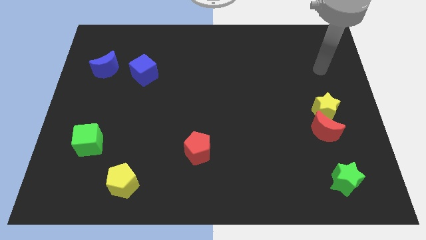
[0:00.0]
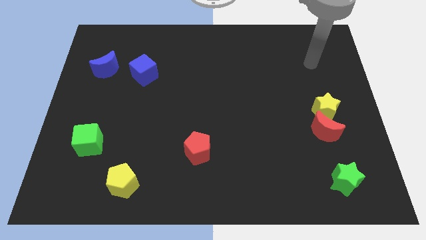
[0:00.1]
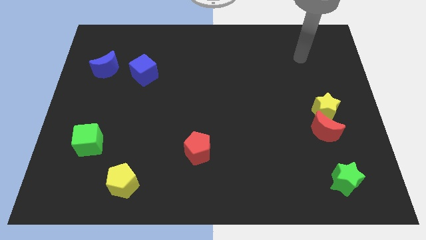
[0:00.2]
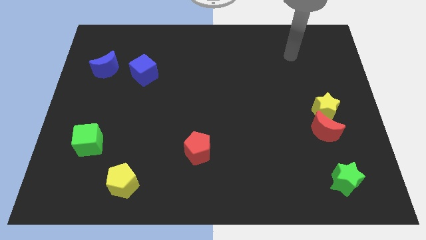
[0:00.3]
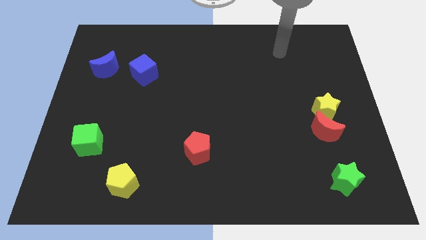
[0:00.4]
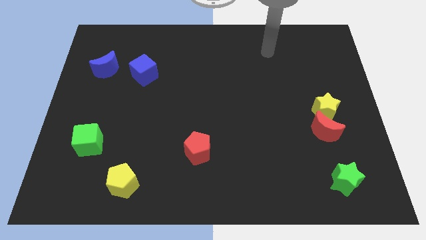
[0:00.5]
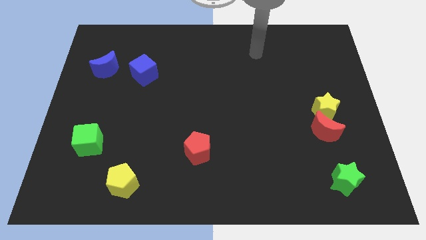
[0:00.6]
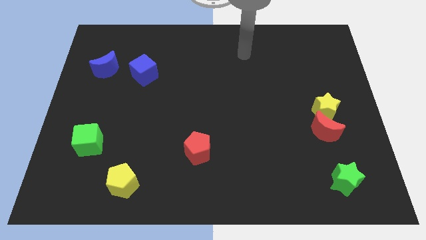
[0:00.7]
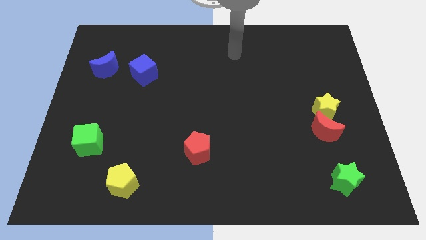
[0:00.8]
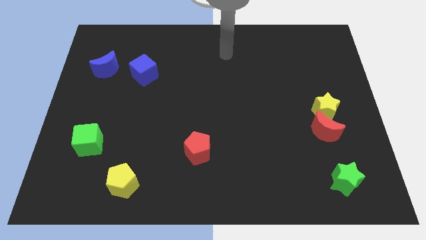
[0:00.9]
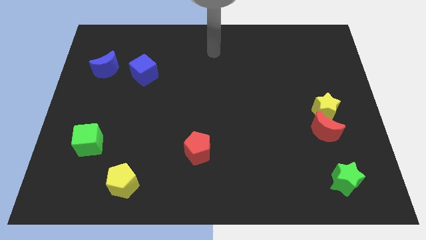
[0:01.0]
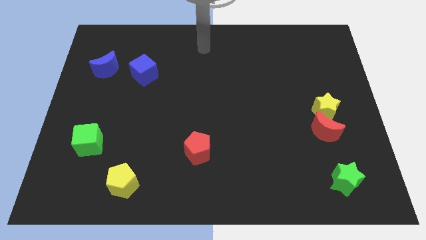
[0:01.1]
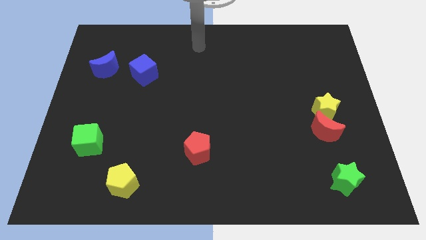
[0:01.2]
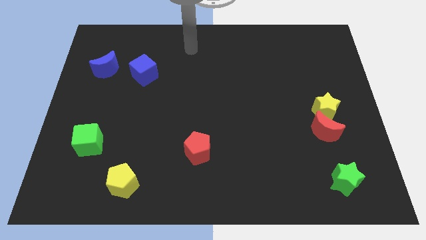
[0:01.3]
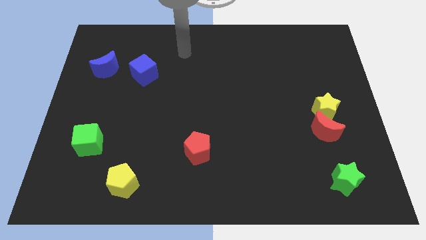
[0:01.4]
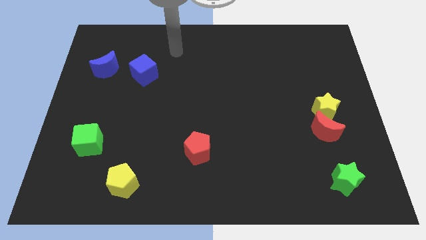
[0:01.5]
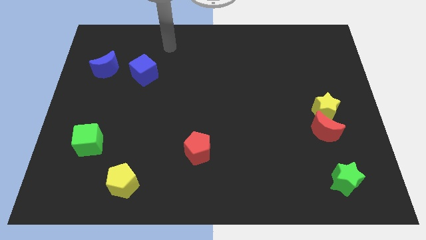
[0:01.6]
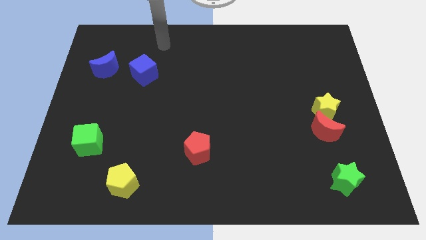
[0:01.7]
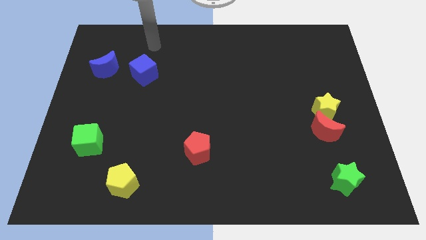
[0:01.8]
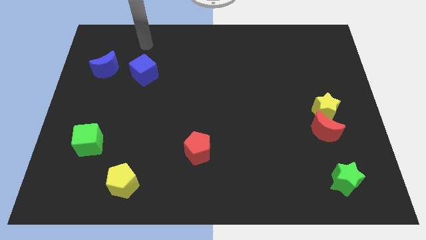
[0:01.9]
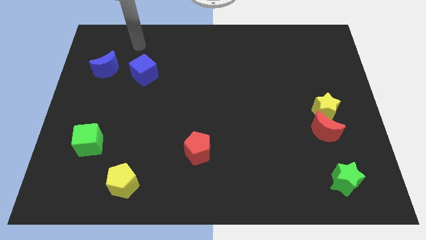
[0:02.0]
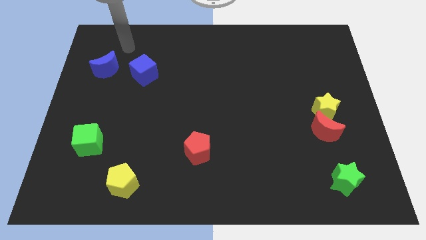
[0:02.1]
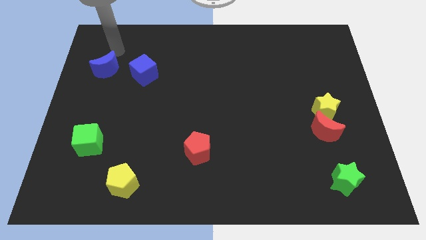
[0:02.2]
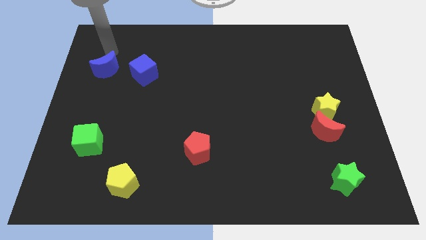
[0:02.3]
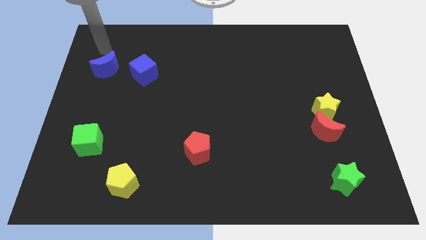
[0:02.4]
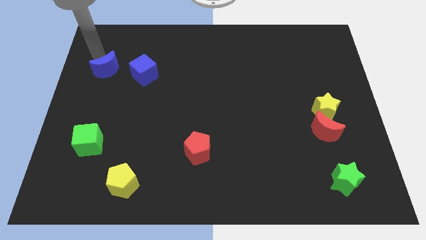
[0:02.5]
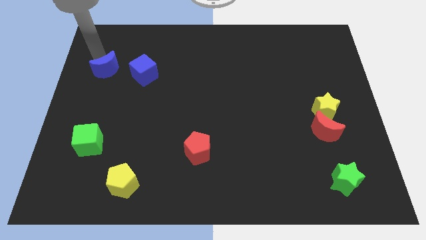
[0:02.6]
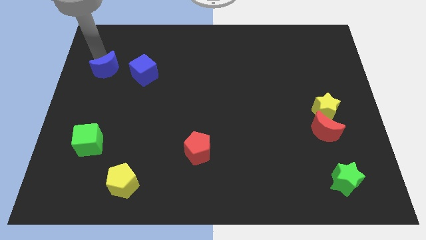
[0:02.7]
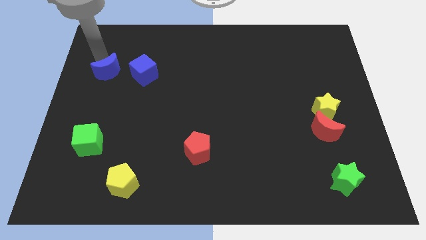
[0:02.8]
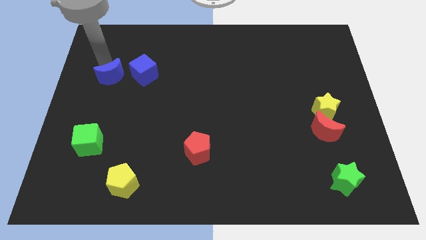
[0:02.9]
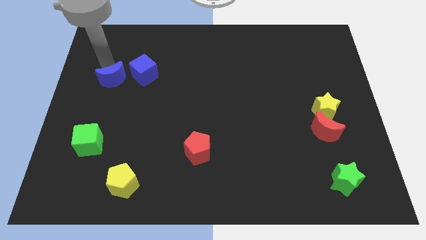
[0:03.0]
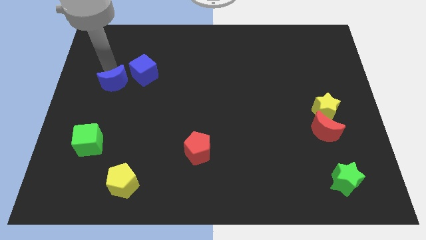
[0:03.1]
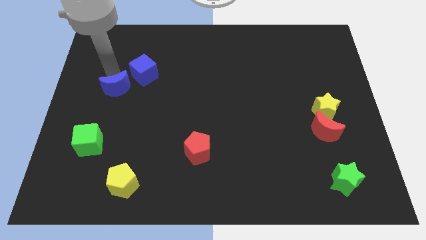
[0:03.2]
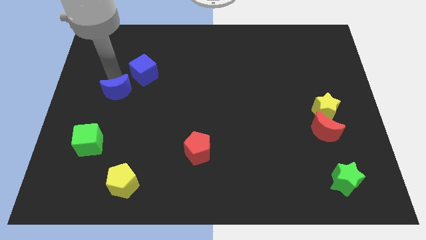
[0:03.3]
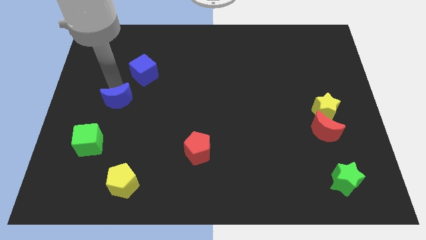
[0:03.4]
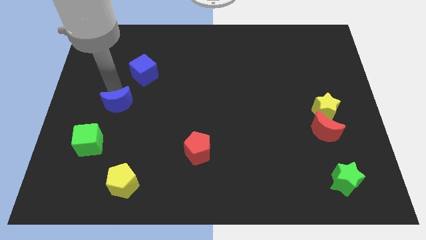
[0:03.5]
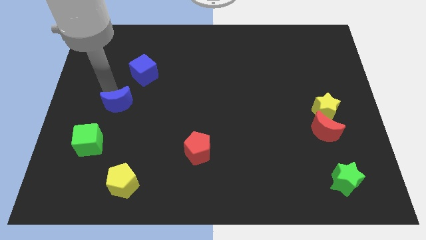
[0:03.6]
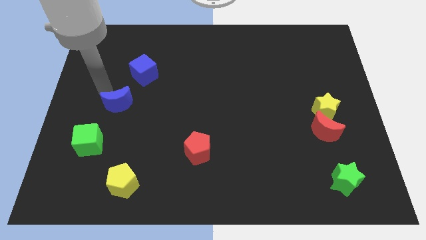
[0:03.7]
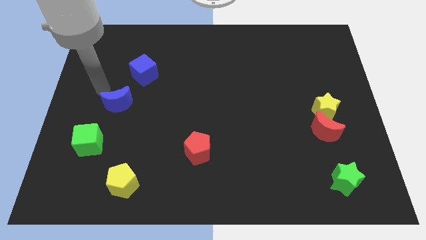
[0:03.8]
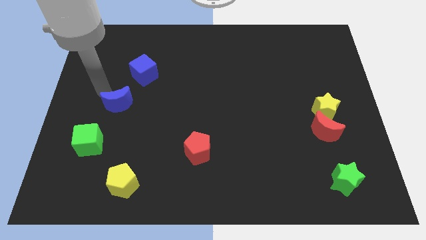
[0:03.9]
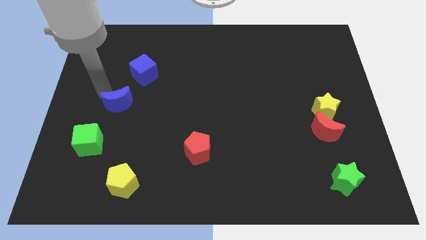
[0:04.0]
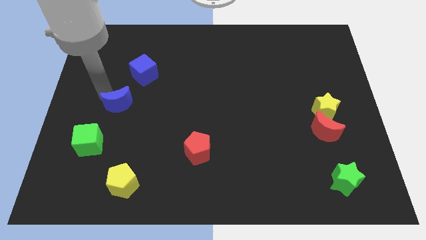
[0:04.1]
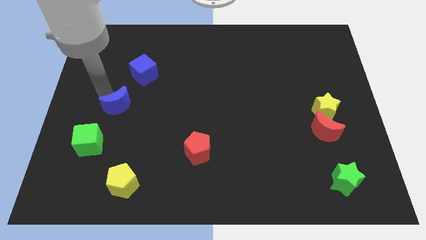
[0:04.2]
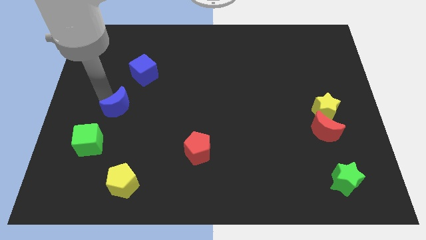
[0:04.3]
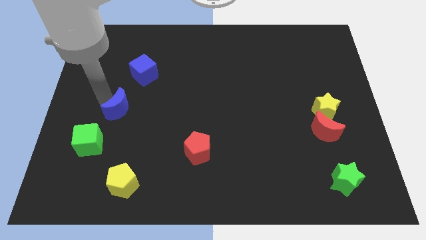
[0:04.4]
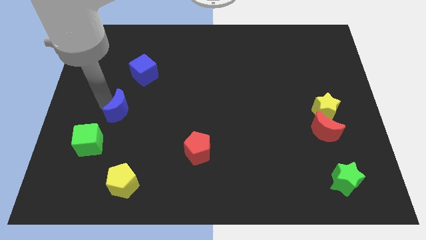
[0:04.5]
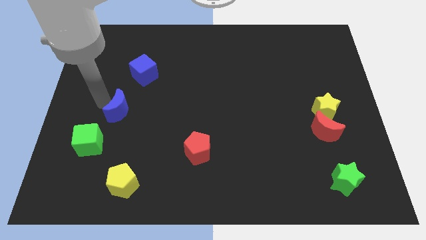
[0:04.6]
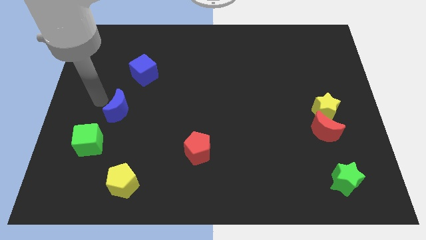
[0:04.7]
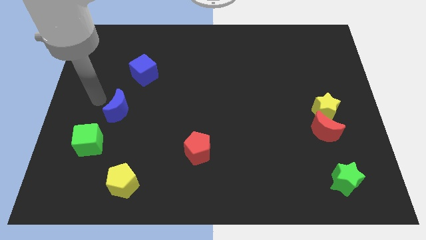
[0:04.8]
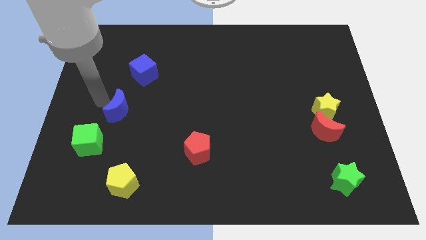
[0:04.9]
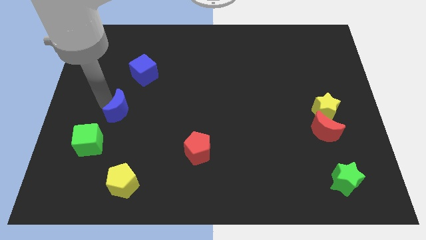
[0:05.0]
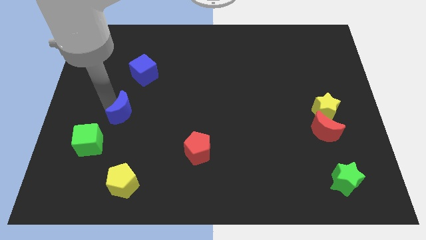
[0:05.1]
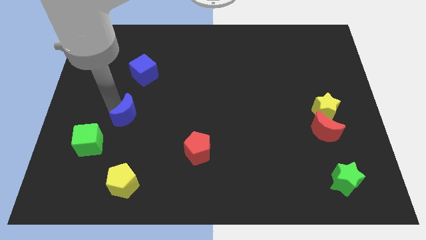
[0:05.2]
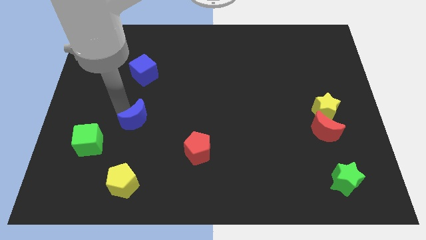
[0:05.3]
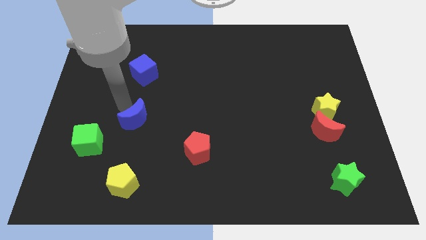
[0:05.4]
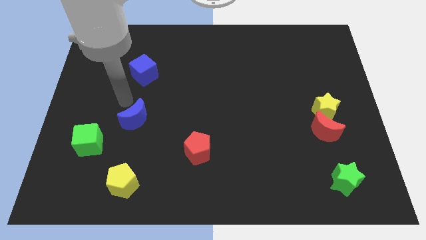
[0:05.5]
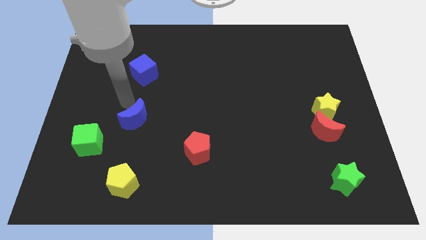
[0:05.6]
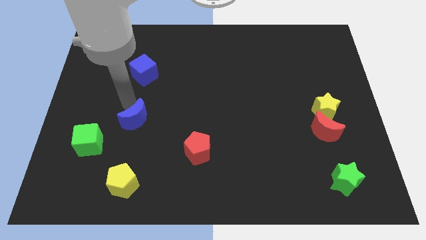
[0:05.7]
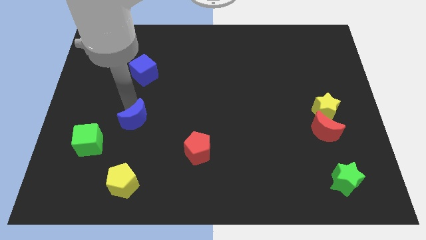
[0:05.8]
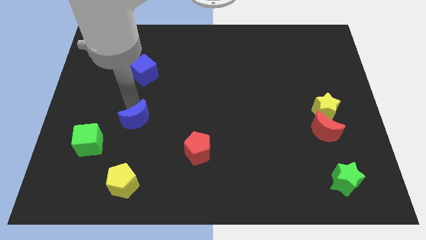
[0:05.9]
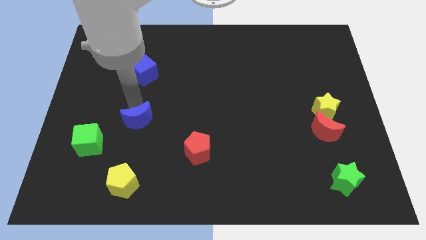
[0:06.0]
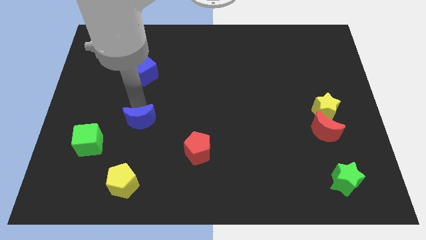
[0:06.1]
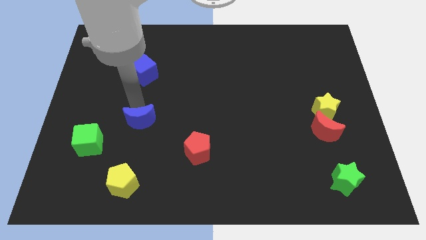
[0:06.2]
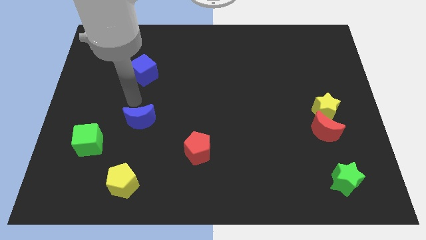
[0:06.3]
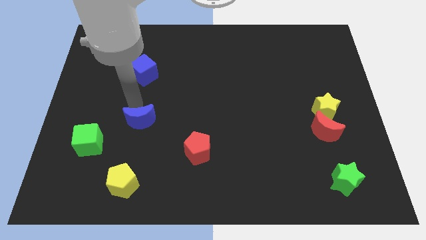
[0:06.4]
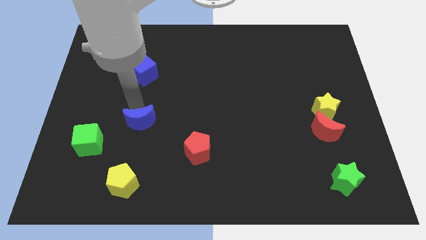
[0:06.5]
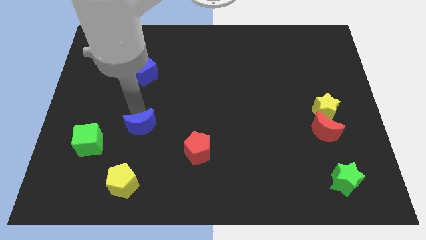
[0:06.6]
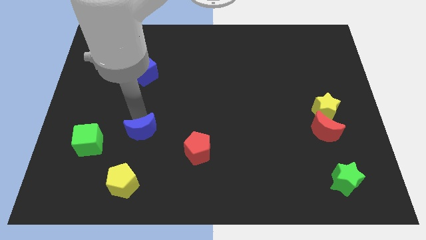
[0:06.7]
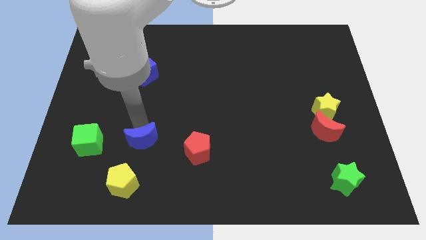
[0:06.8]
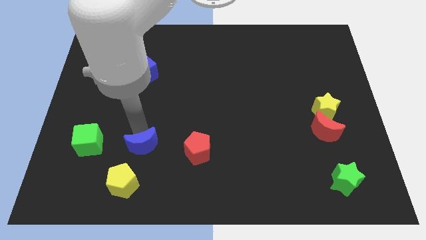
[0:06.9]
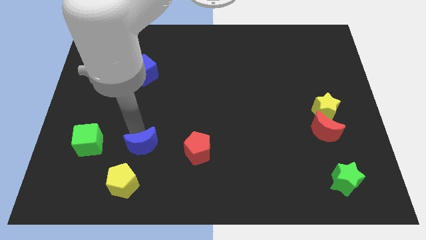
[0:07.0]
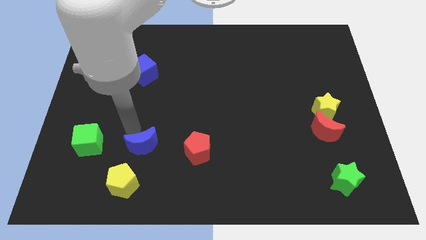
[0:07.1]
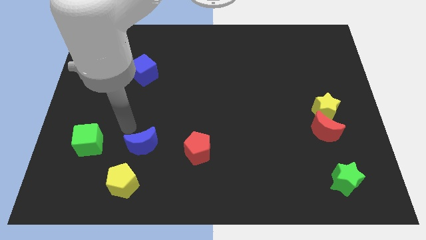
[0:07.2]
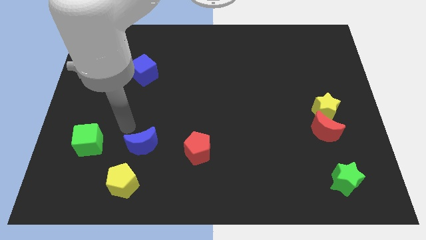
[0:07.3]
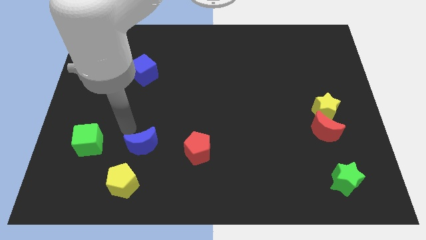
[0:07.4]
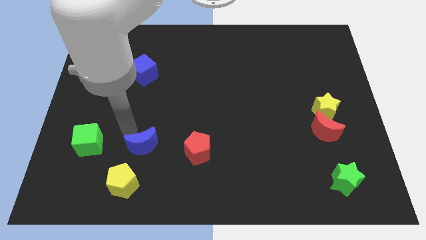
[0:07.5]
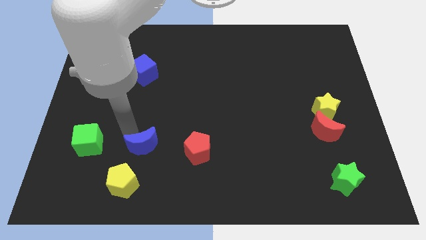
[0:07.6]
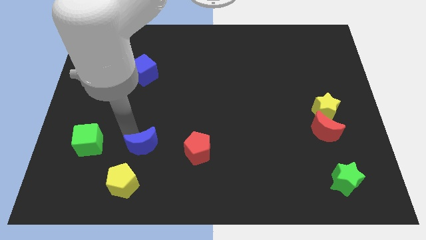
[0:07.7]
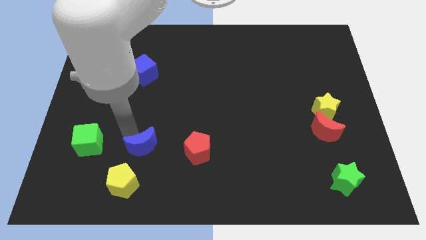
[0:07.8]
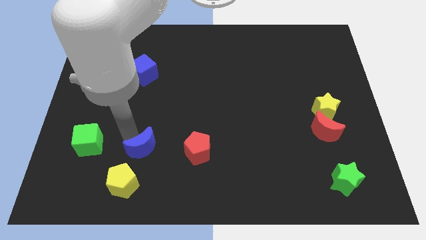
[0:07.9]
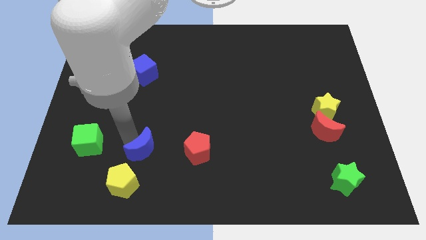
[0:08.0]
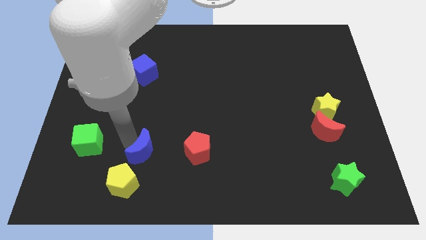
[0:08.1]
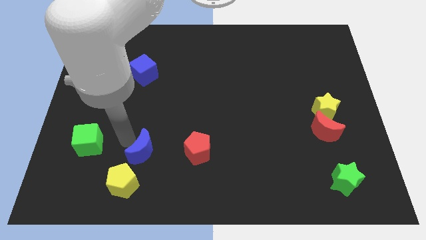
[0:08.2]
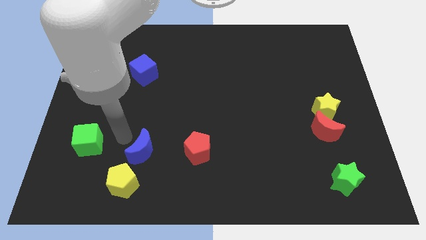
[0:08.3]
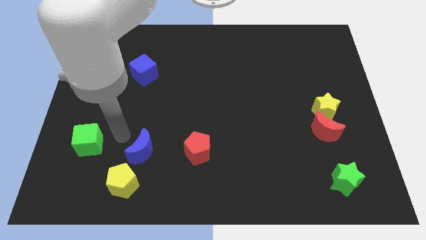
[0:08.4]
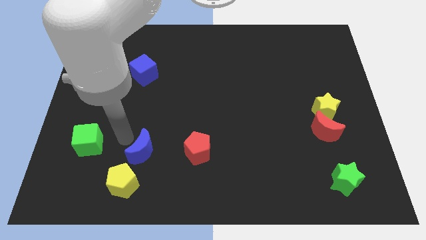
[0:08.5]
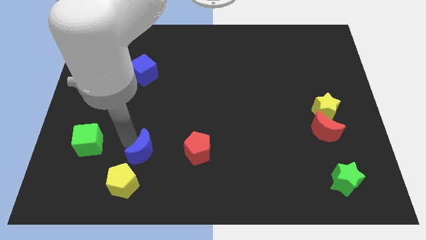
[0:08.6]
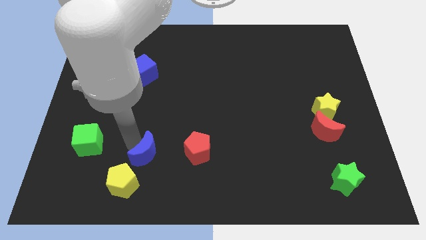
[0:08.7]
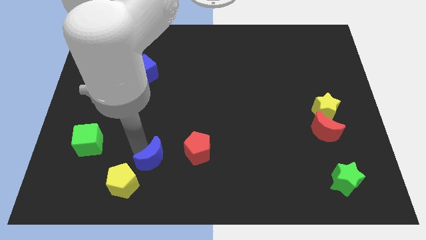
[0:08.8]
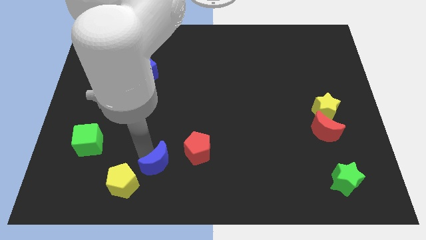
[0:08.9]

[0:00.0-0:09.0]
move the blue moon diagonally down and to the left of the red pentagon
